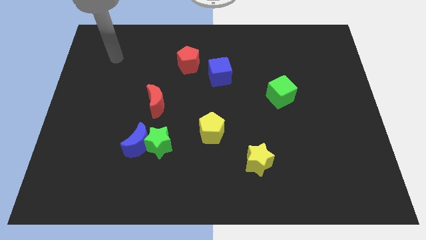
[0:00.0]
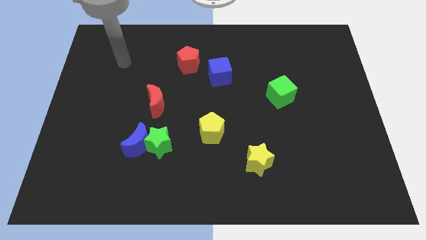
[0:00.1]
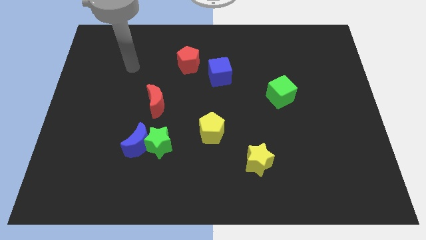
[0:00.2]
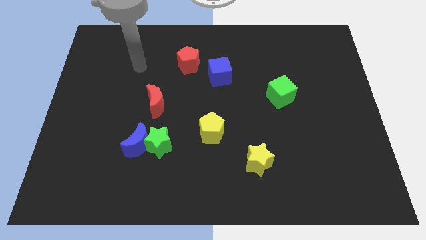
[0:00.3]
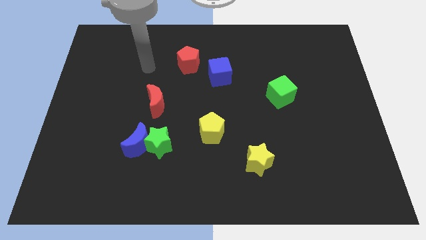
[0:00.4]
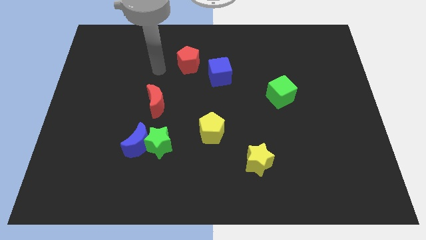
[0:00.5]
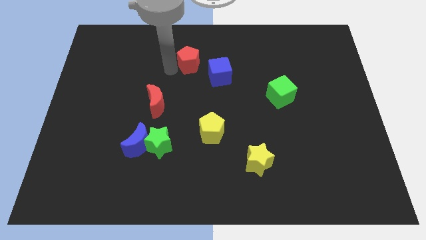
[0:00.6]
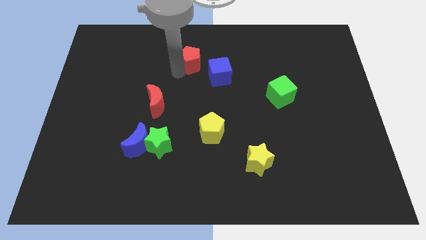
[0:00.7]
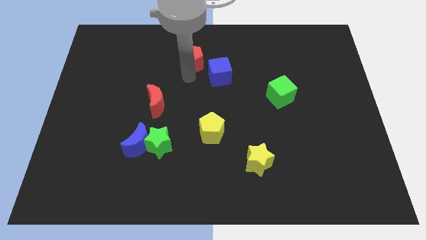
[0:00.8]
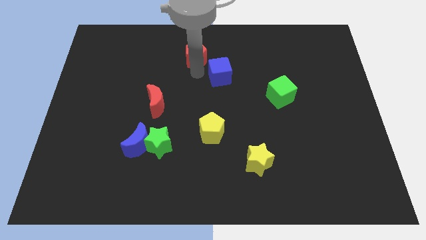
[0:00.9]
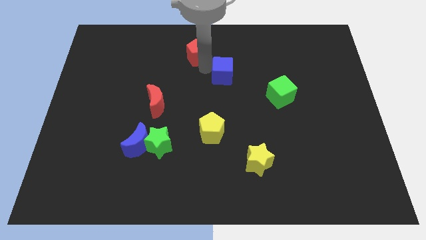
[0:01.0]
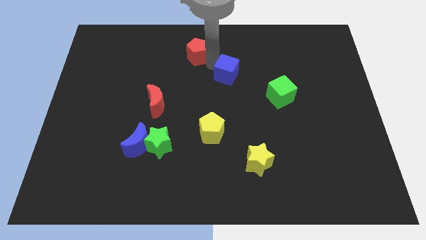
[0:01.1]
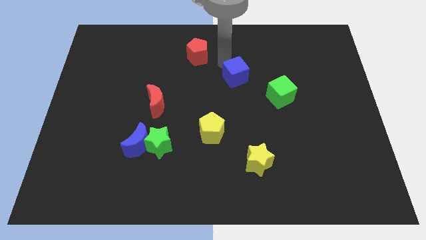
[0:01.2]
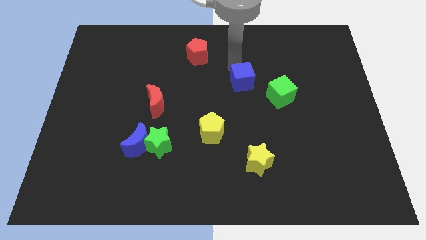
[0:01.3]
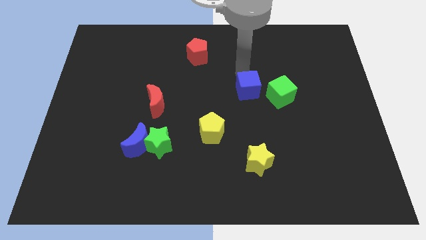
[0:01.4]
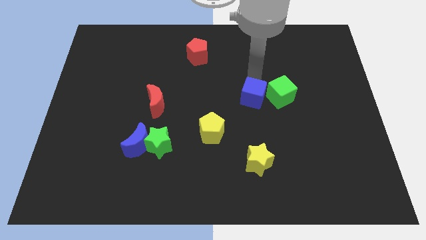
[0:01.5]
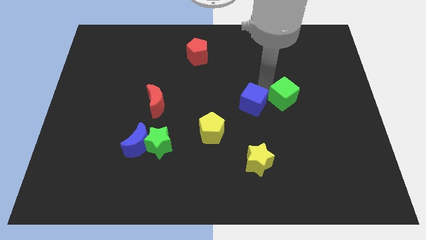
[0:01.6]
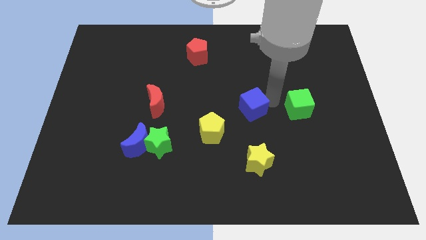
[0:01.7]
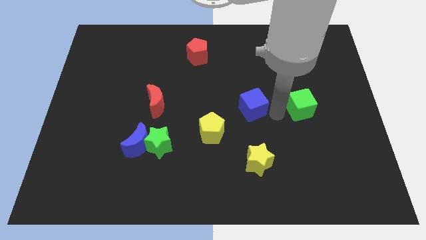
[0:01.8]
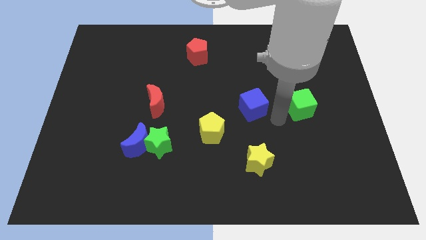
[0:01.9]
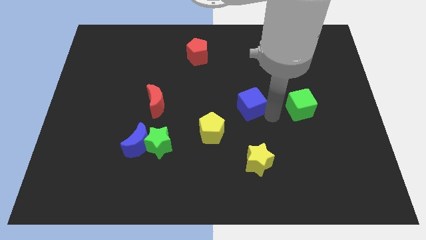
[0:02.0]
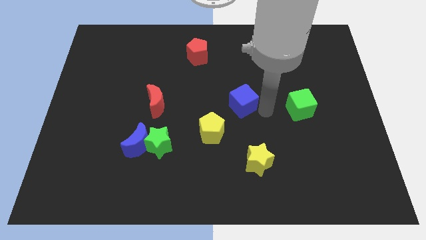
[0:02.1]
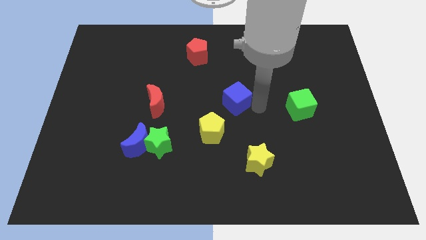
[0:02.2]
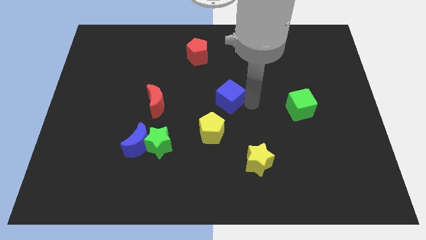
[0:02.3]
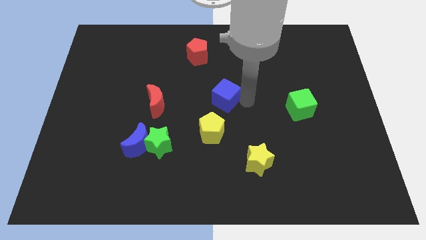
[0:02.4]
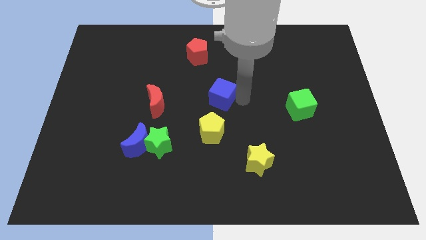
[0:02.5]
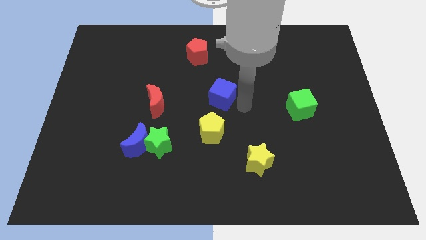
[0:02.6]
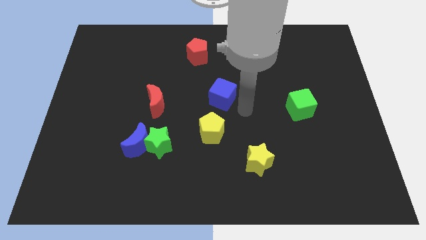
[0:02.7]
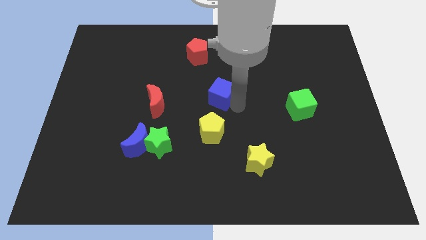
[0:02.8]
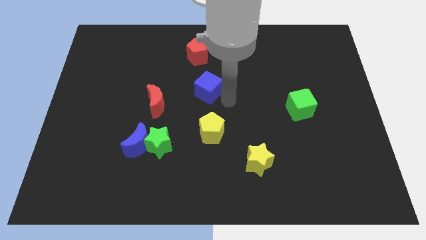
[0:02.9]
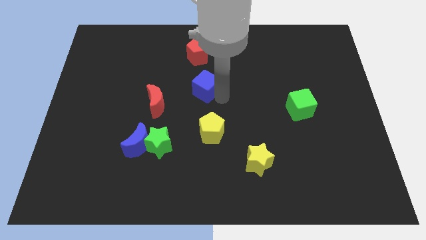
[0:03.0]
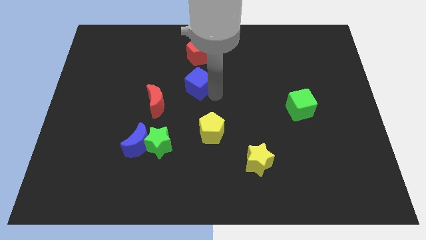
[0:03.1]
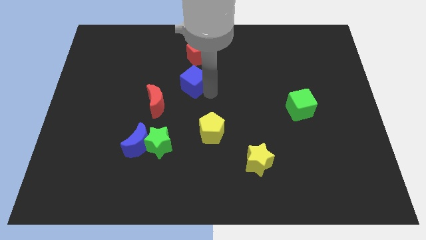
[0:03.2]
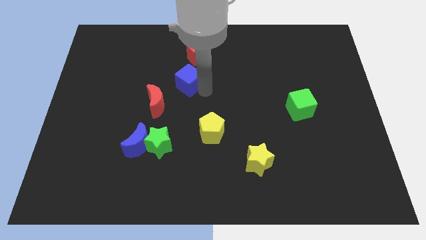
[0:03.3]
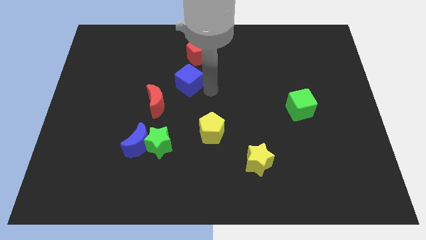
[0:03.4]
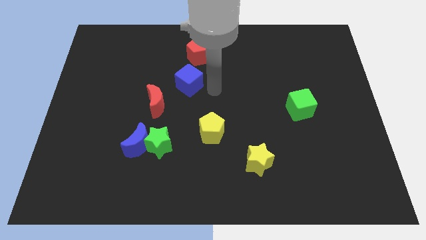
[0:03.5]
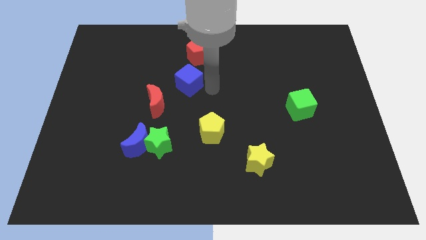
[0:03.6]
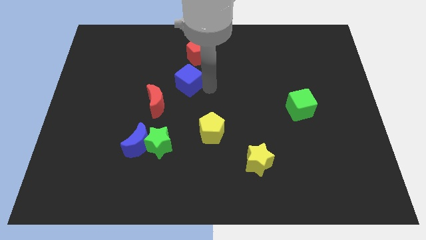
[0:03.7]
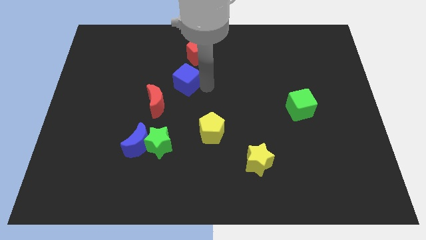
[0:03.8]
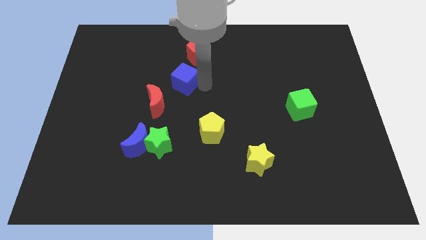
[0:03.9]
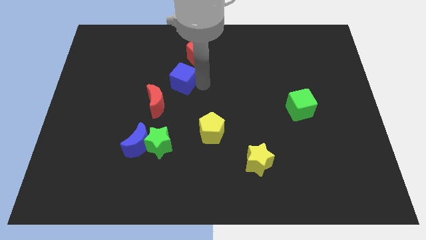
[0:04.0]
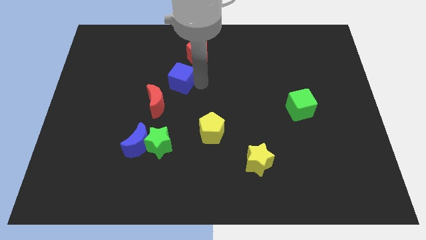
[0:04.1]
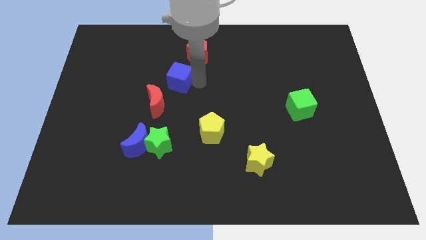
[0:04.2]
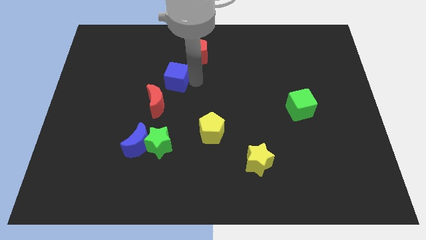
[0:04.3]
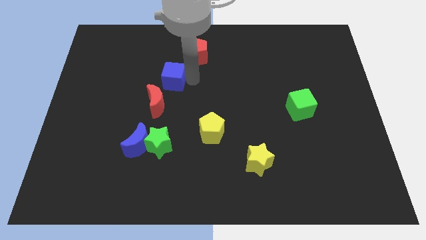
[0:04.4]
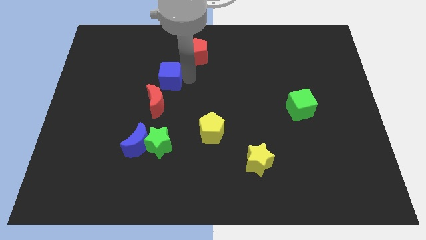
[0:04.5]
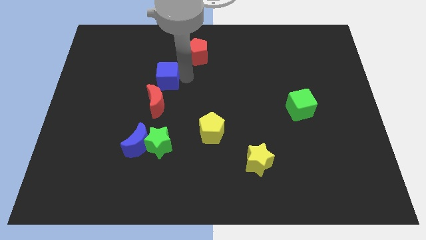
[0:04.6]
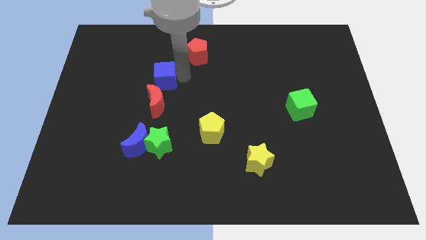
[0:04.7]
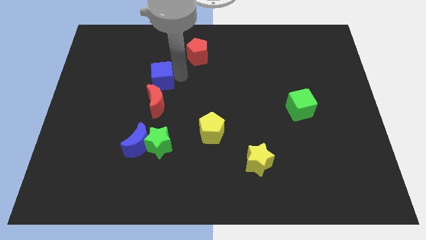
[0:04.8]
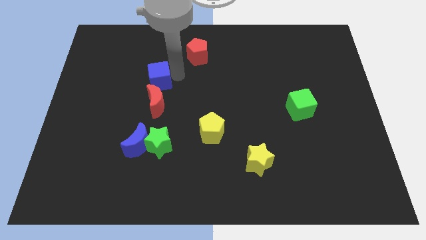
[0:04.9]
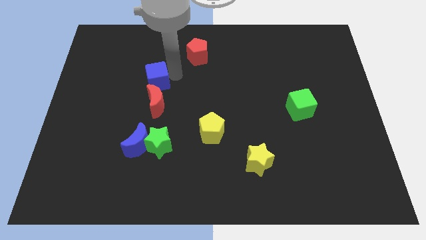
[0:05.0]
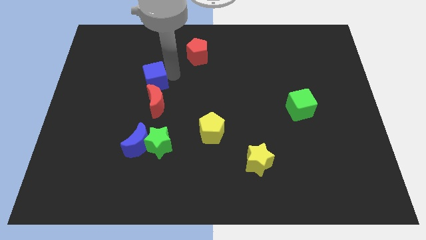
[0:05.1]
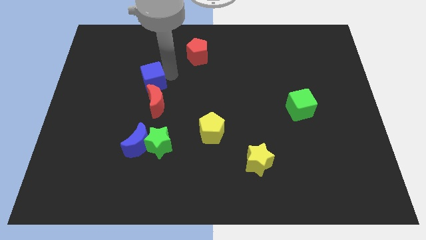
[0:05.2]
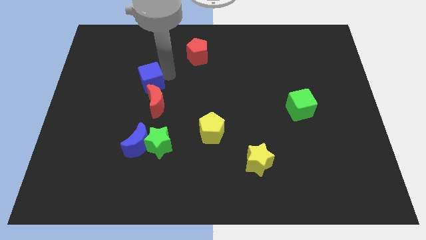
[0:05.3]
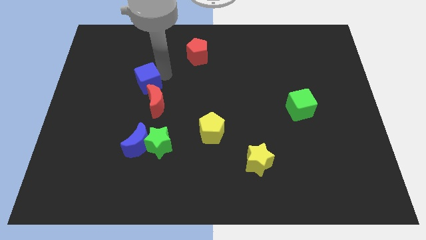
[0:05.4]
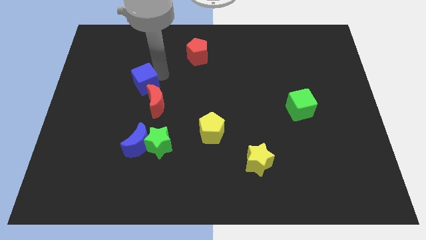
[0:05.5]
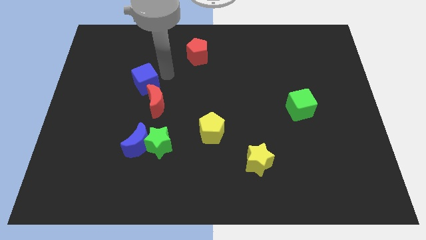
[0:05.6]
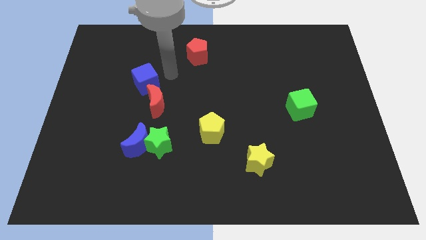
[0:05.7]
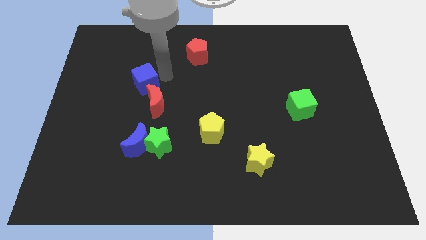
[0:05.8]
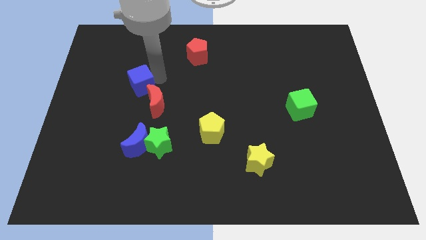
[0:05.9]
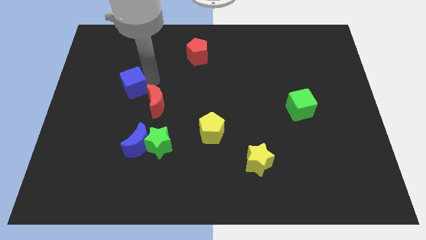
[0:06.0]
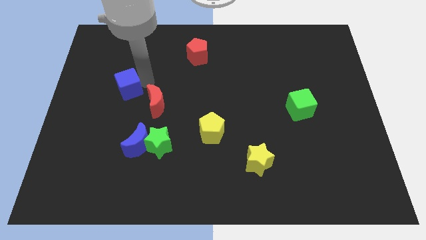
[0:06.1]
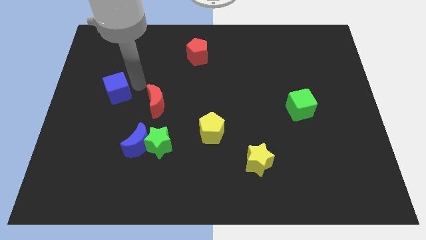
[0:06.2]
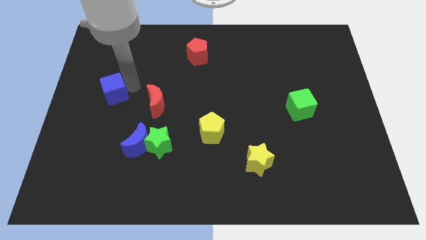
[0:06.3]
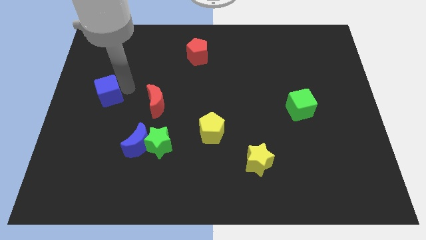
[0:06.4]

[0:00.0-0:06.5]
move the blue cube to the left side of the board
